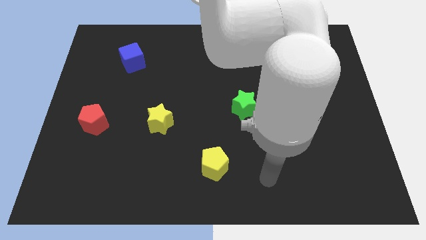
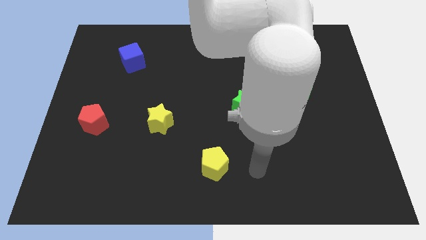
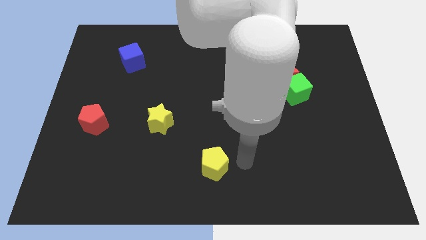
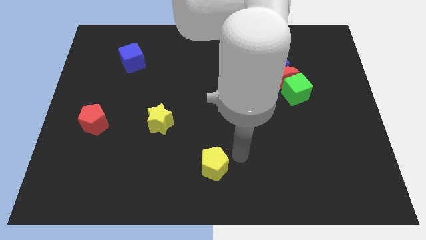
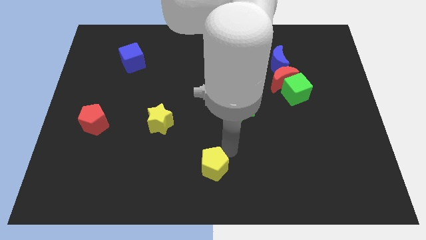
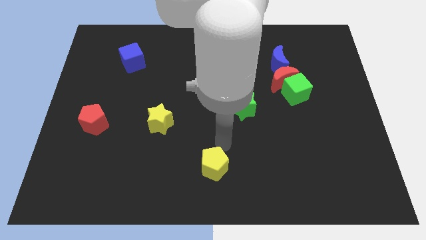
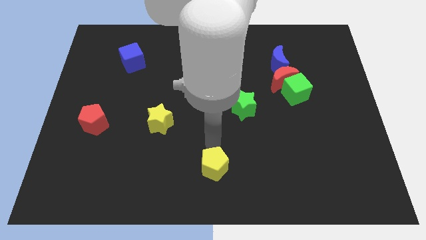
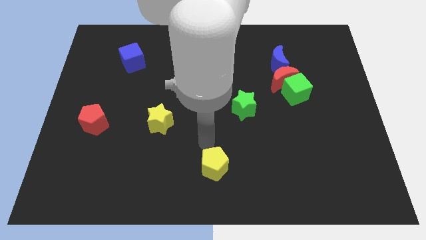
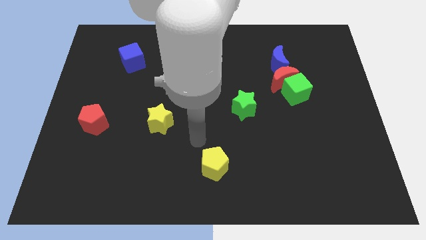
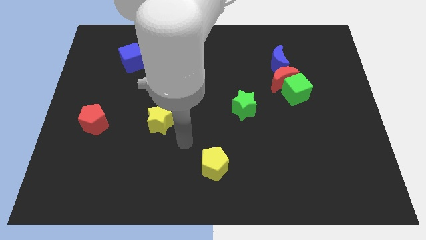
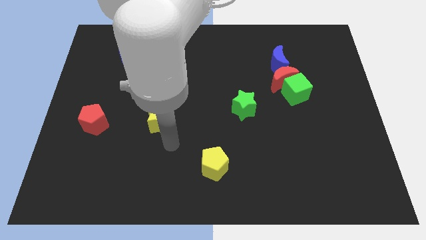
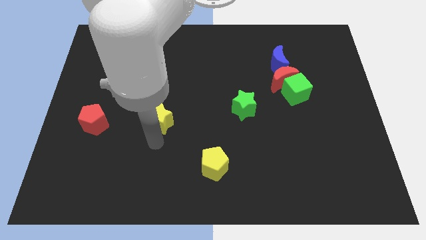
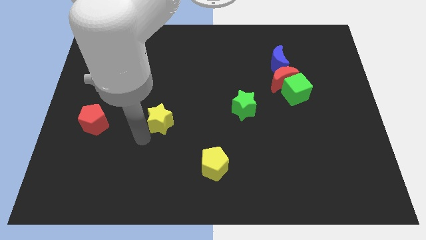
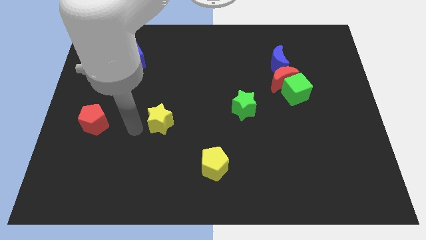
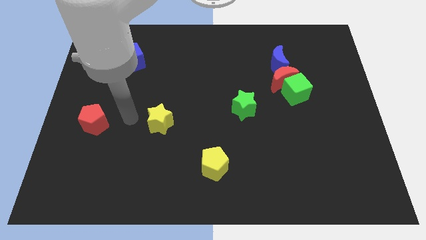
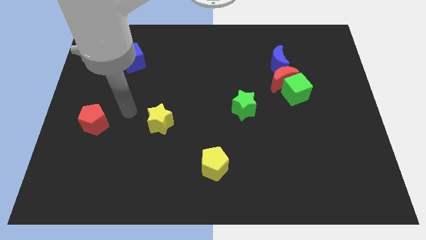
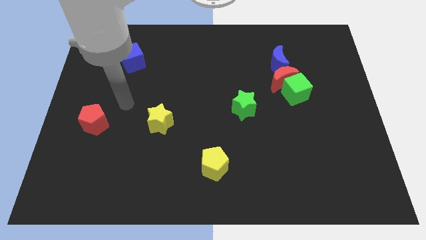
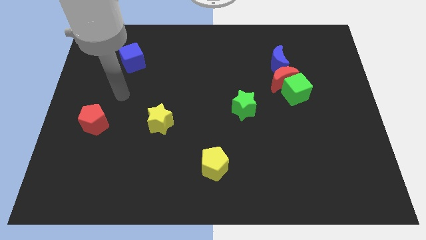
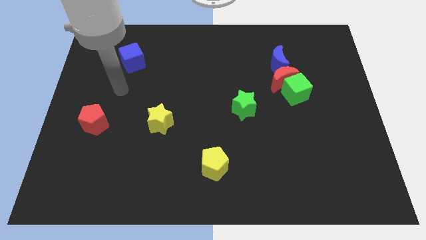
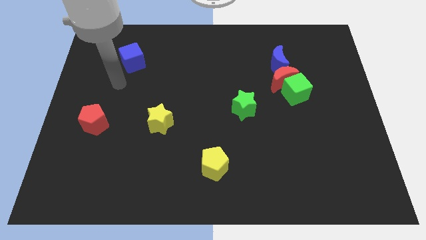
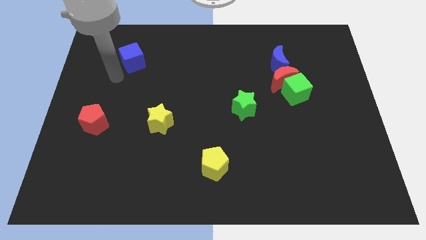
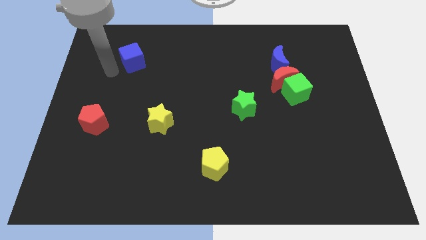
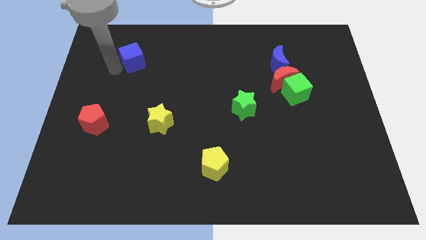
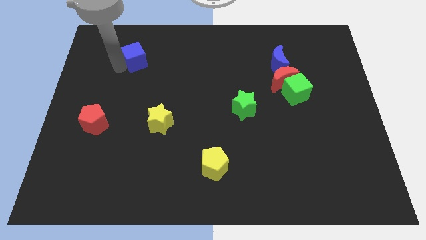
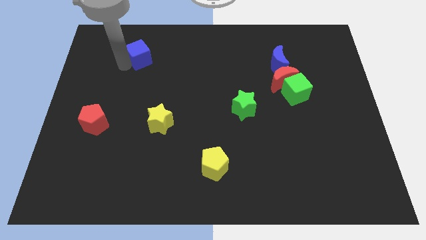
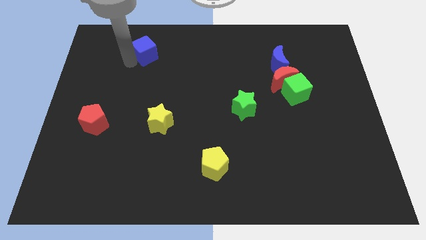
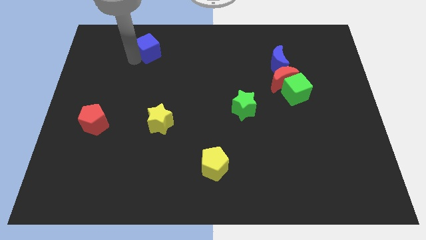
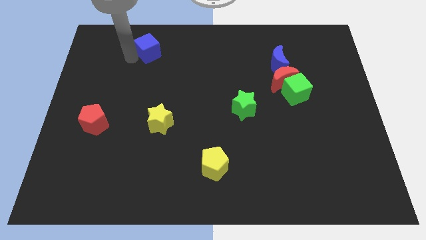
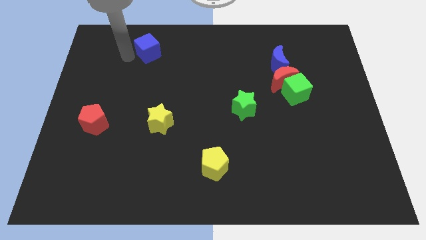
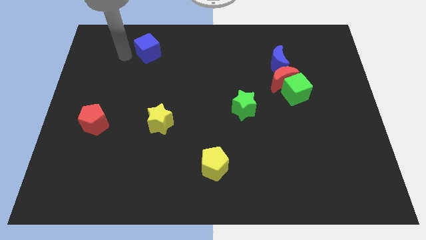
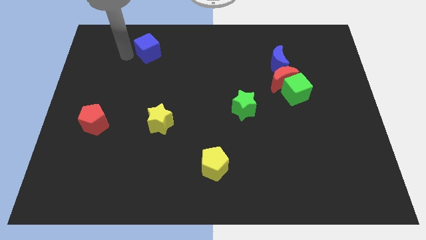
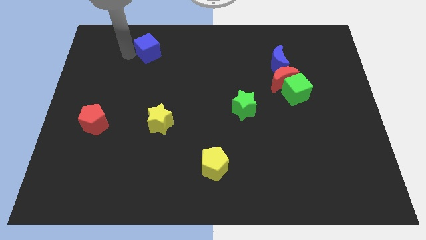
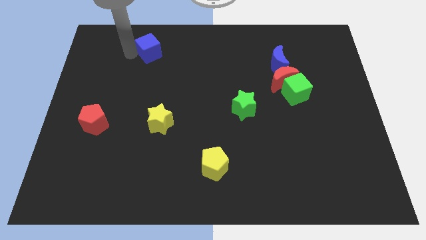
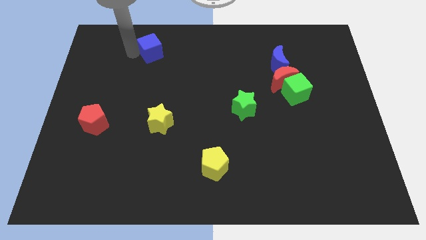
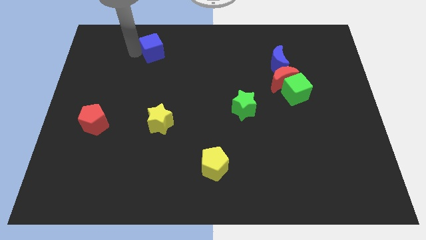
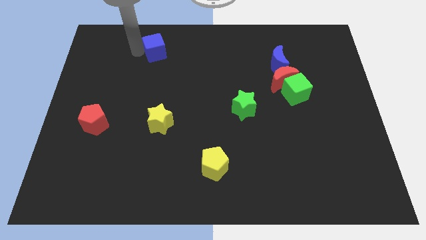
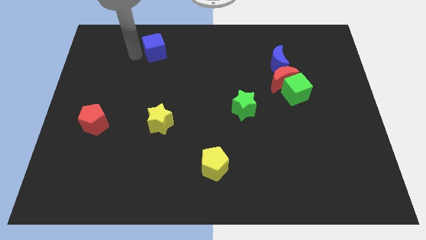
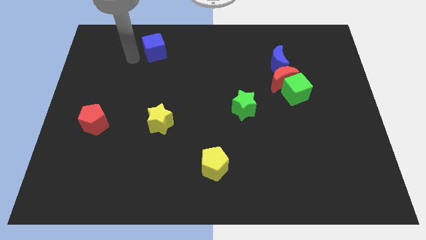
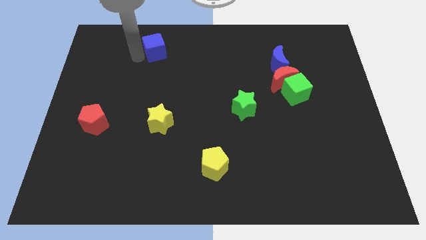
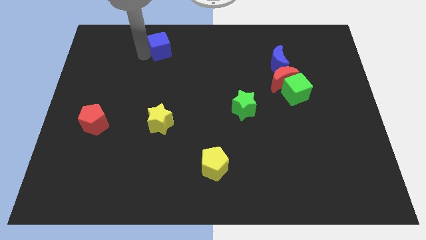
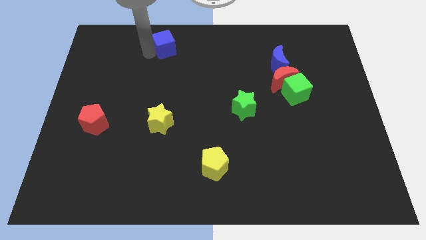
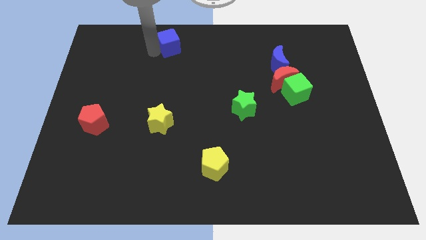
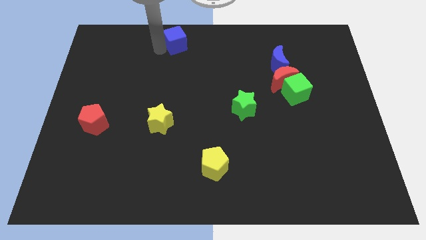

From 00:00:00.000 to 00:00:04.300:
push the blue cube to the top side

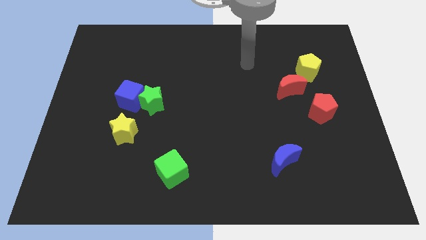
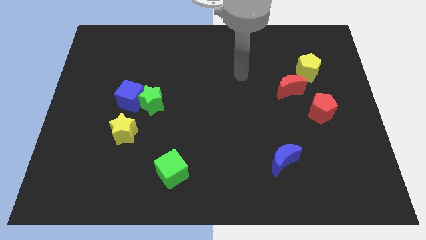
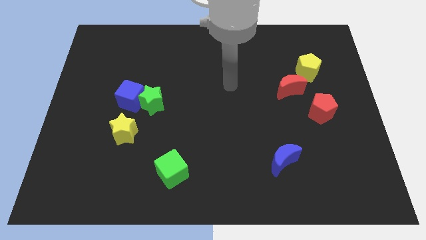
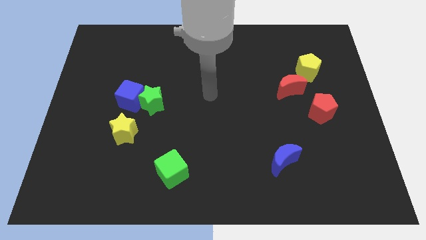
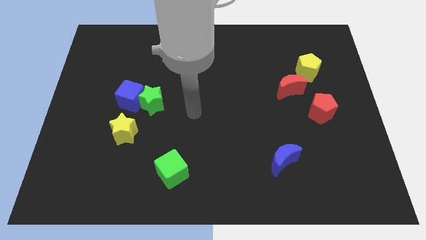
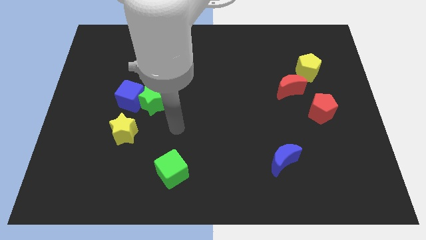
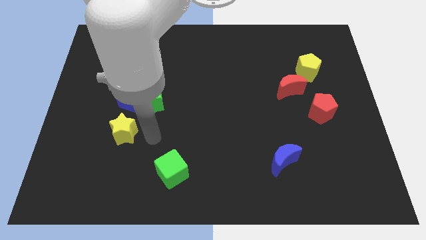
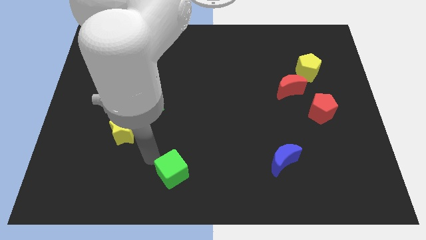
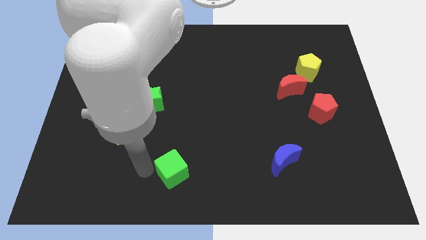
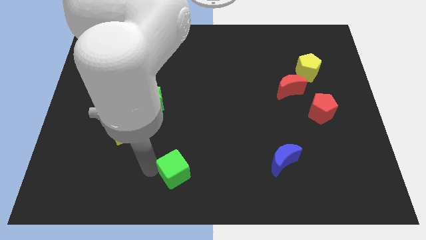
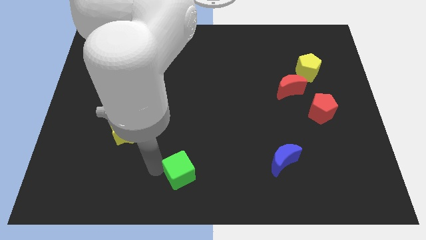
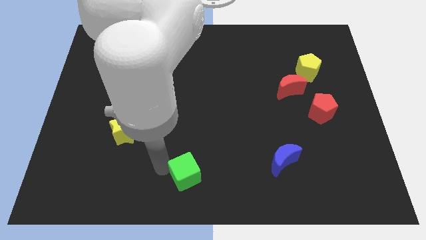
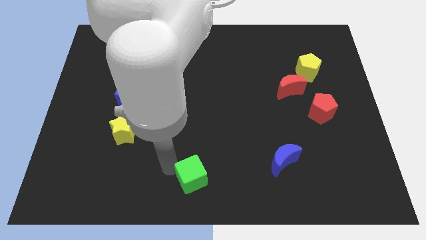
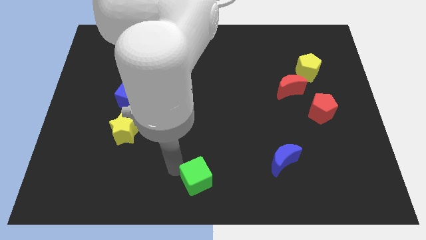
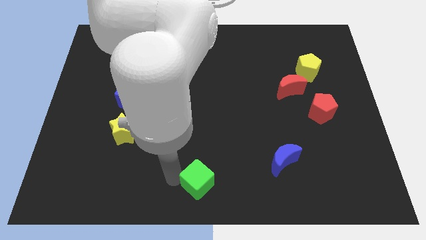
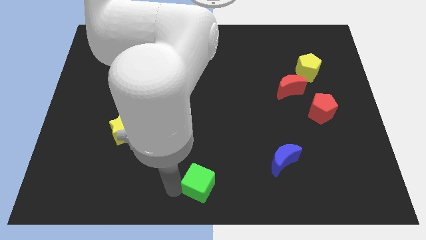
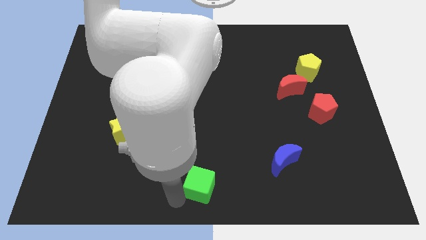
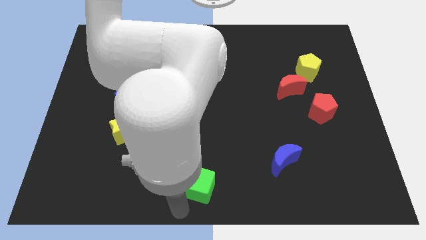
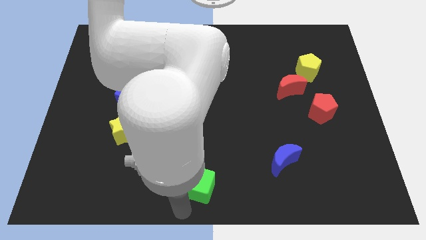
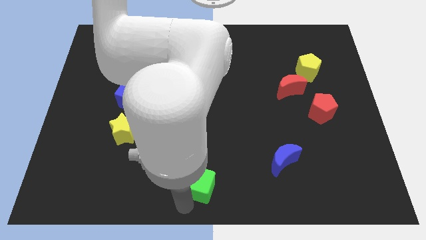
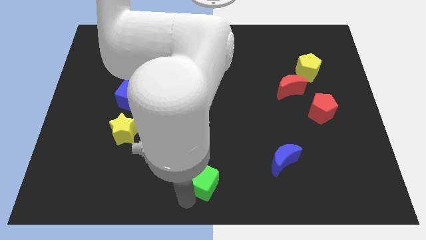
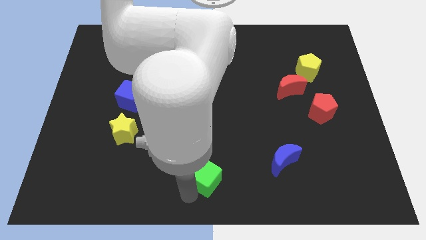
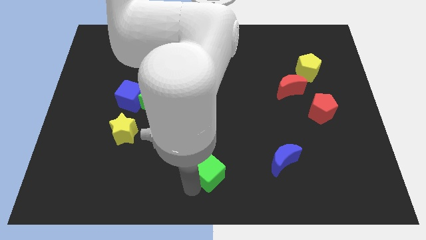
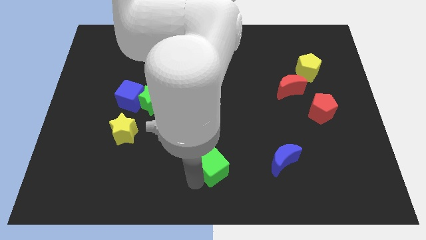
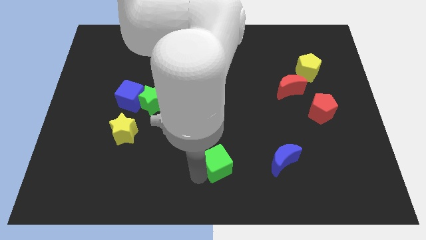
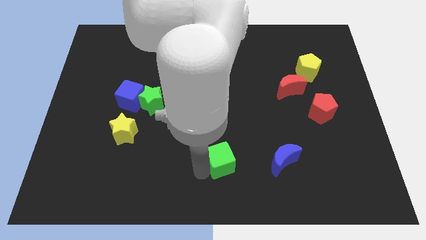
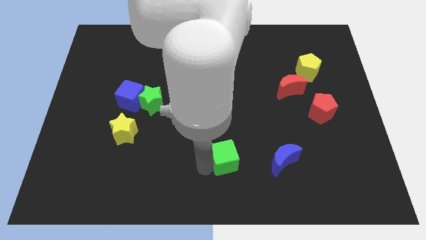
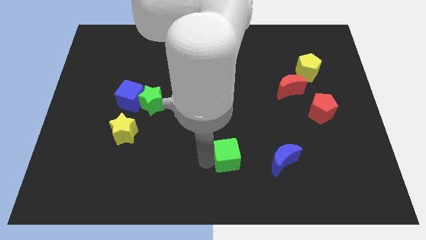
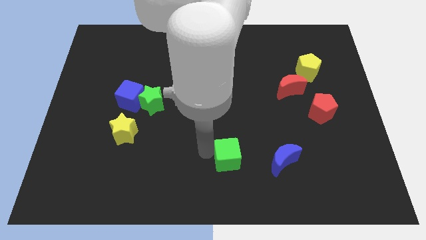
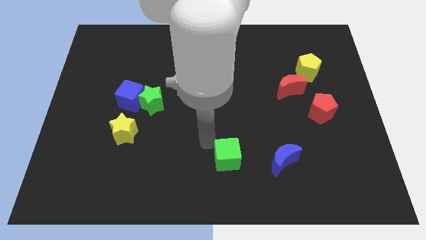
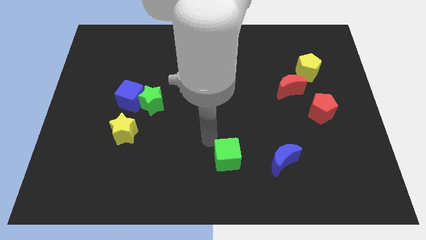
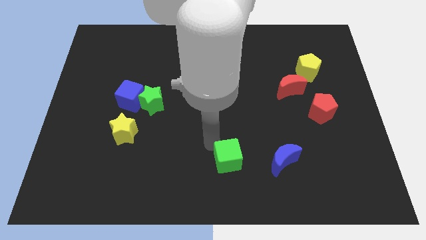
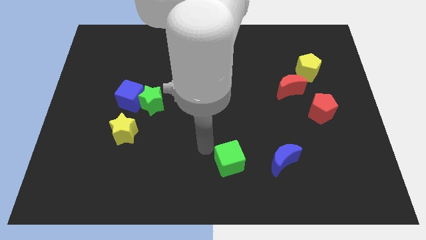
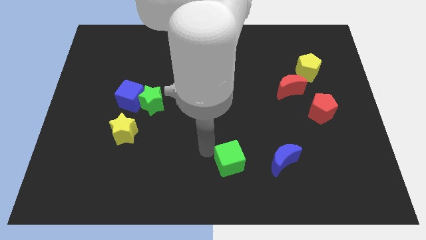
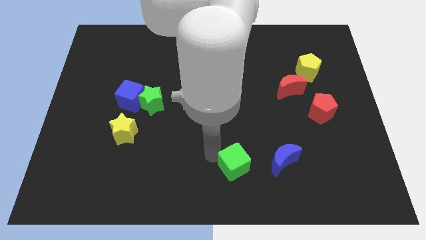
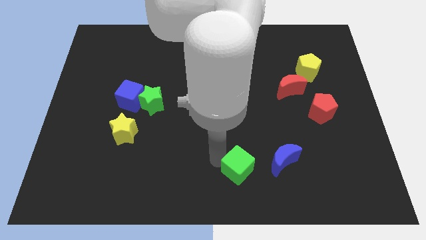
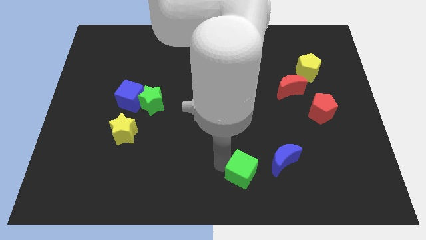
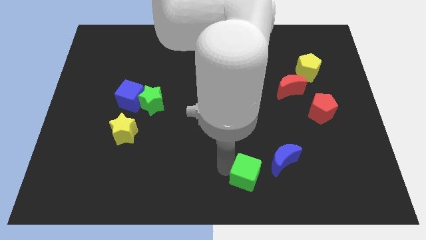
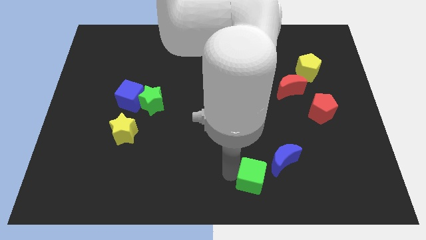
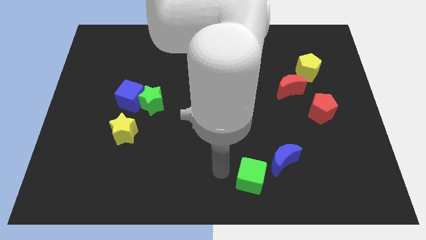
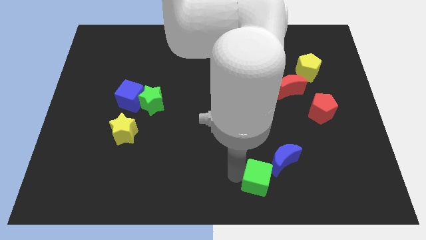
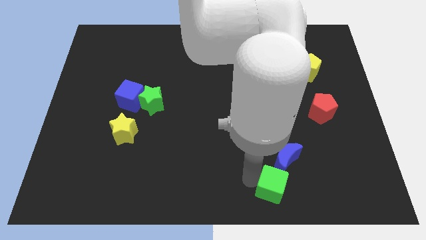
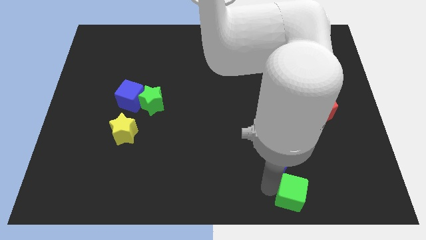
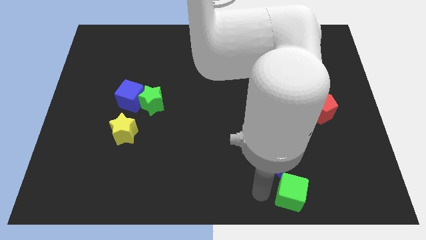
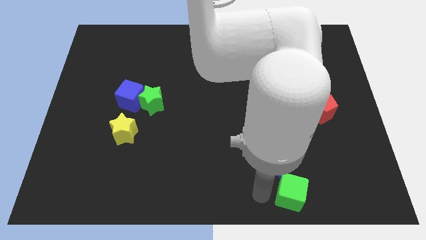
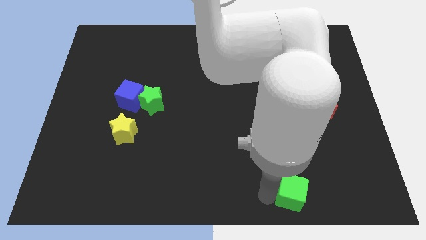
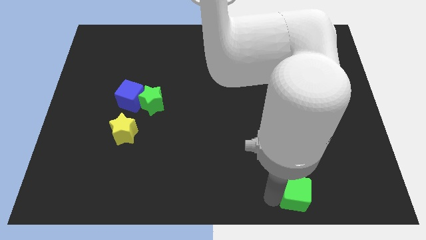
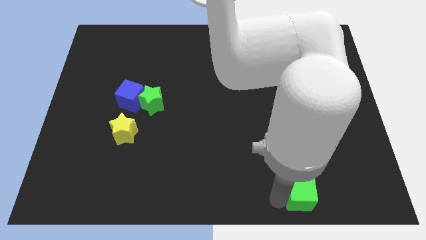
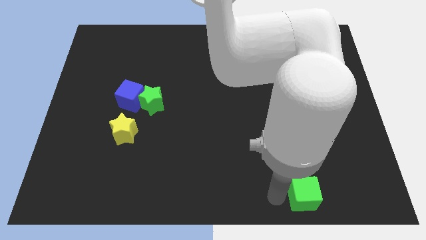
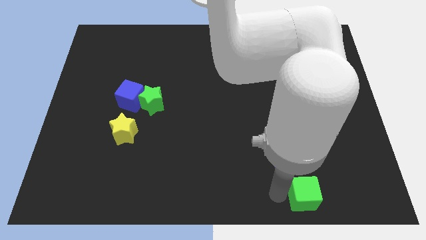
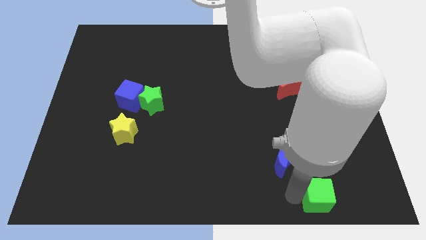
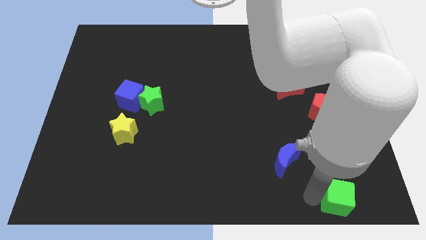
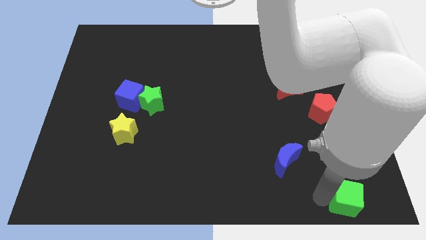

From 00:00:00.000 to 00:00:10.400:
move the green cube to the lower right corner
